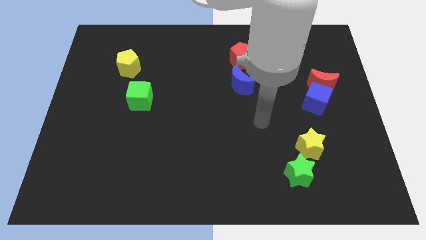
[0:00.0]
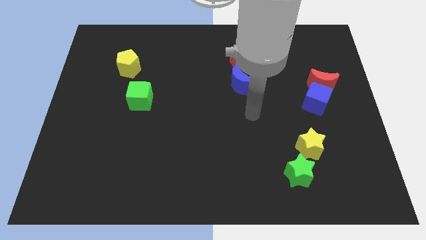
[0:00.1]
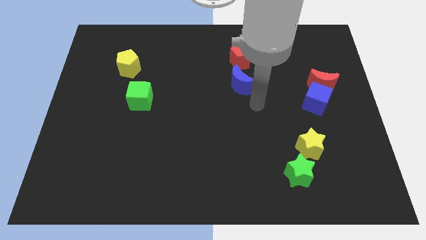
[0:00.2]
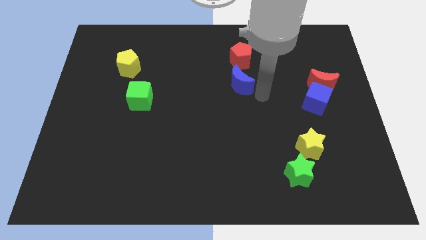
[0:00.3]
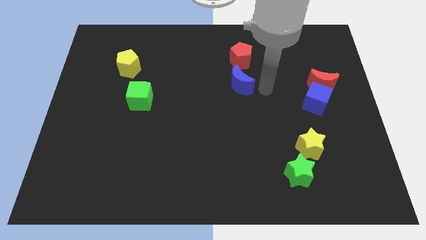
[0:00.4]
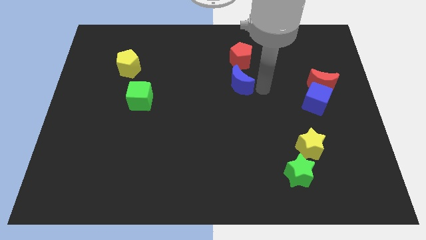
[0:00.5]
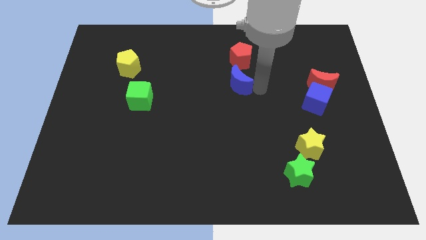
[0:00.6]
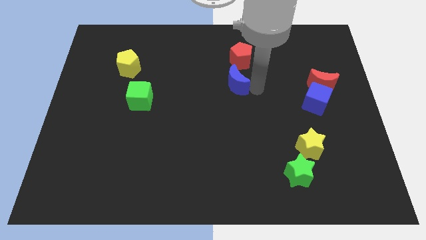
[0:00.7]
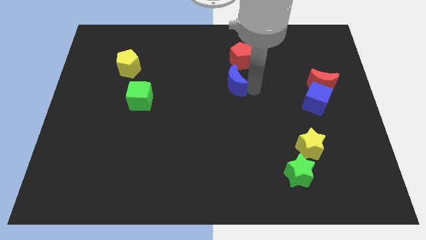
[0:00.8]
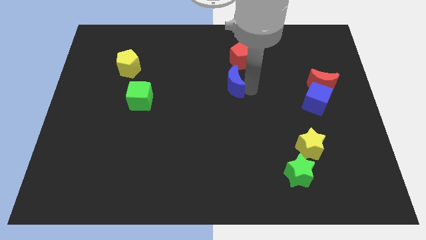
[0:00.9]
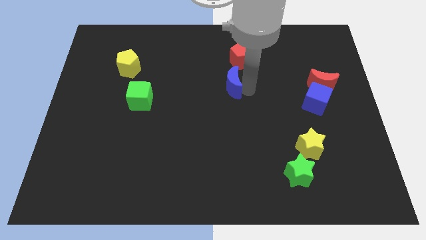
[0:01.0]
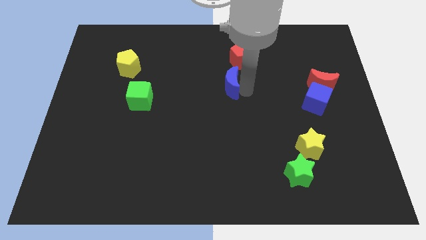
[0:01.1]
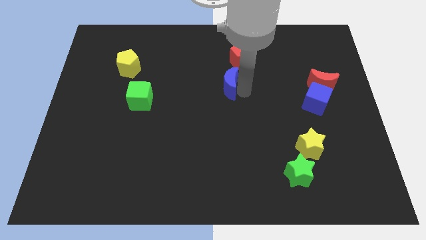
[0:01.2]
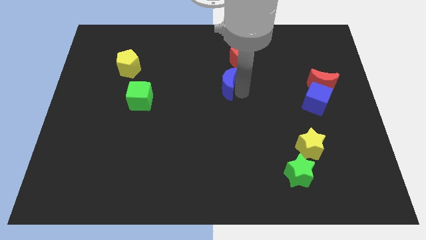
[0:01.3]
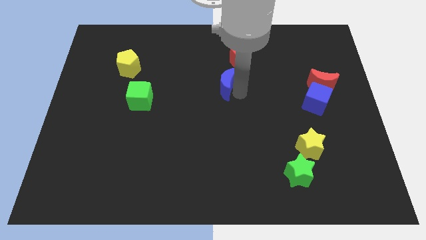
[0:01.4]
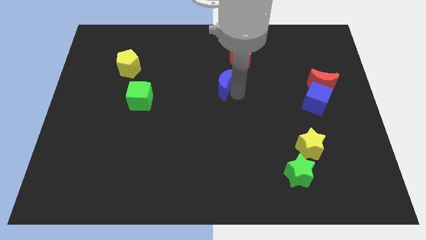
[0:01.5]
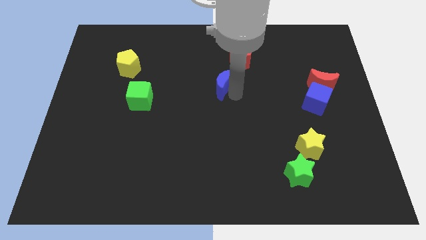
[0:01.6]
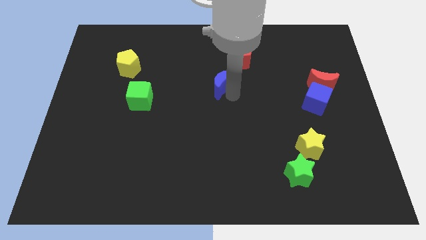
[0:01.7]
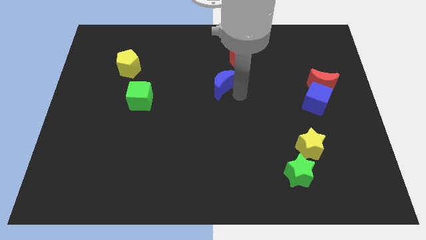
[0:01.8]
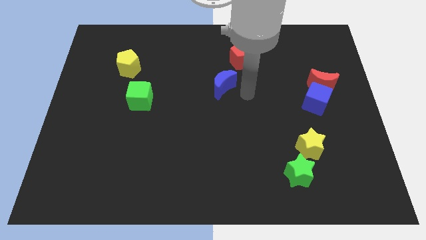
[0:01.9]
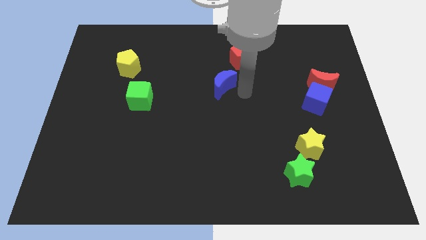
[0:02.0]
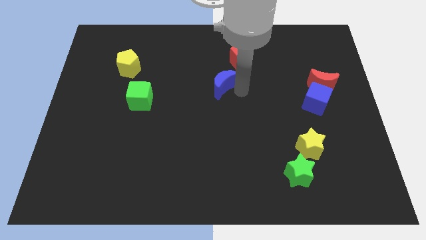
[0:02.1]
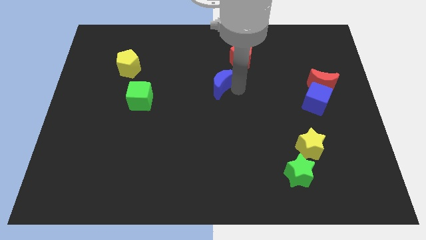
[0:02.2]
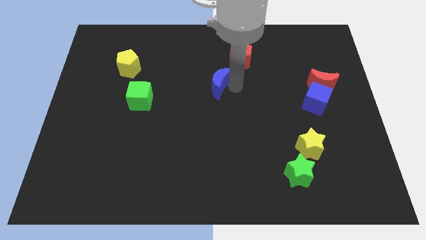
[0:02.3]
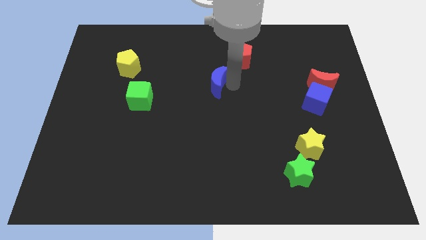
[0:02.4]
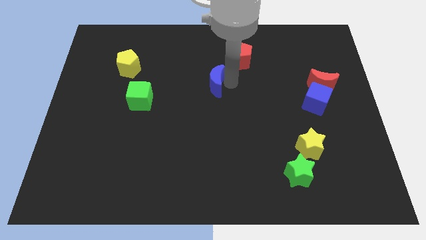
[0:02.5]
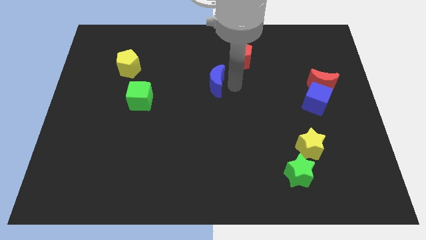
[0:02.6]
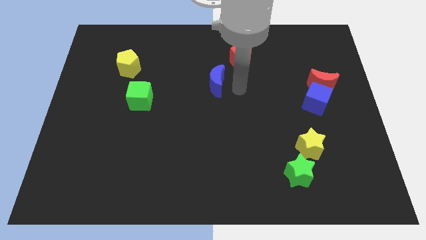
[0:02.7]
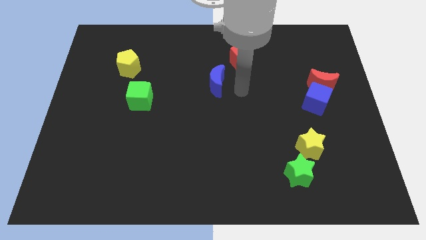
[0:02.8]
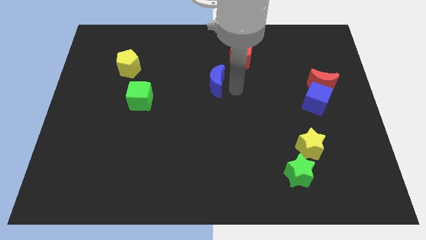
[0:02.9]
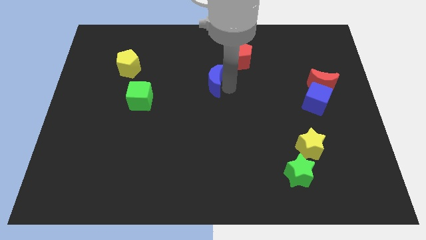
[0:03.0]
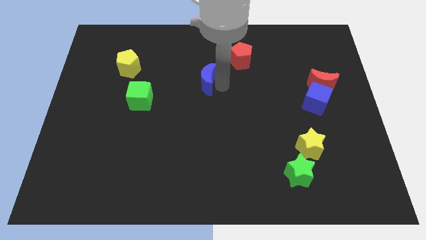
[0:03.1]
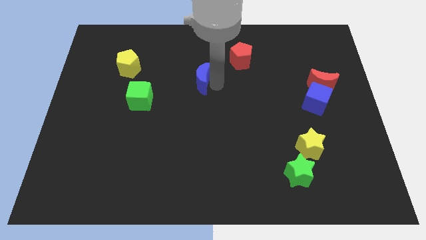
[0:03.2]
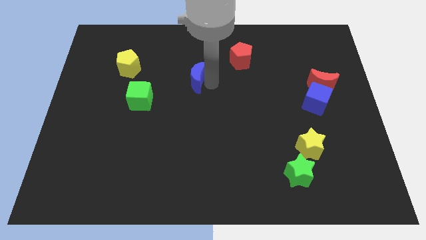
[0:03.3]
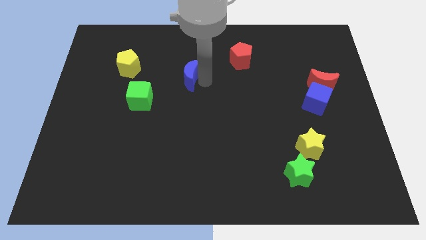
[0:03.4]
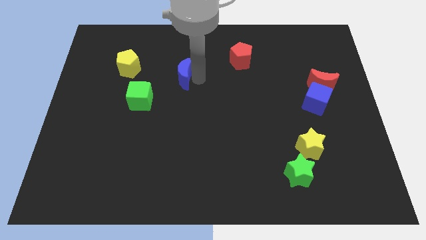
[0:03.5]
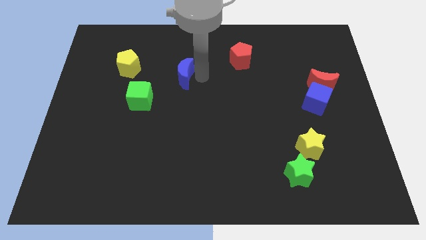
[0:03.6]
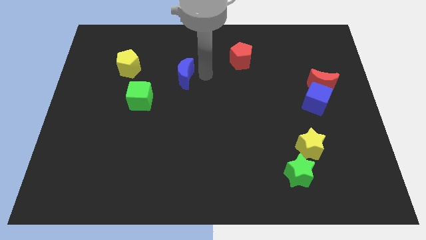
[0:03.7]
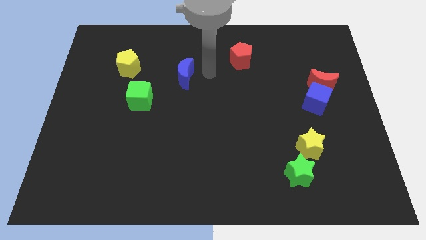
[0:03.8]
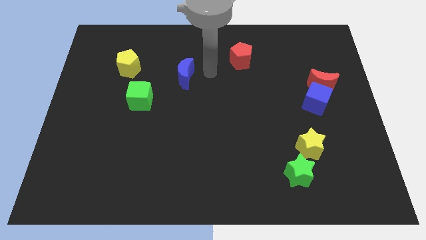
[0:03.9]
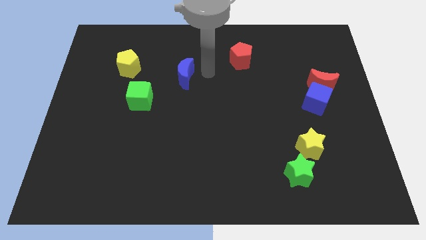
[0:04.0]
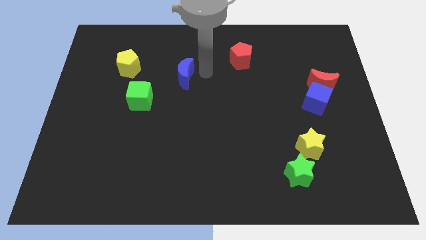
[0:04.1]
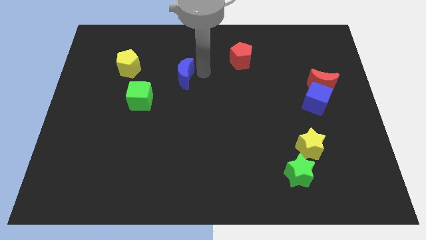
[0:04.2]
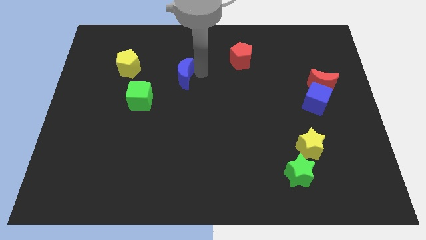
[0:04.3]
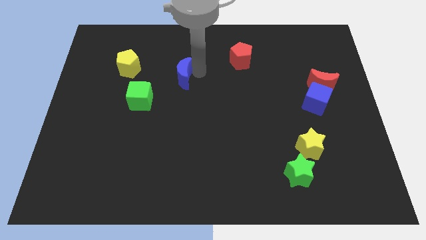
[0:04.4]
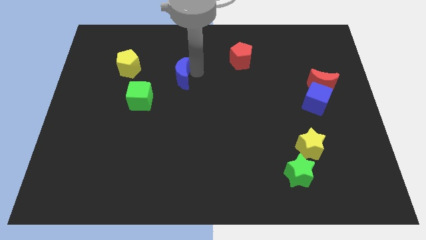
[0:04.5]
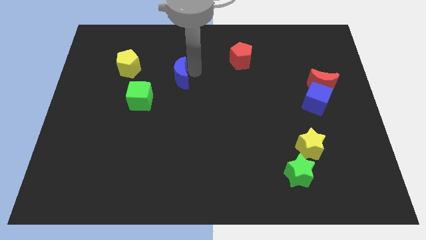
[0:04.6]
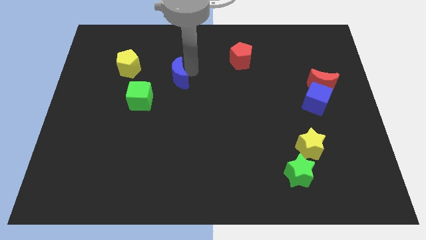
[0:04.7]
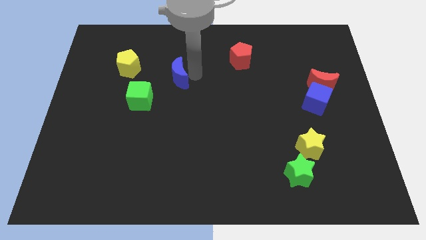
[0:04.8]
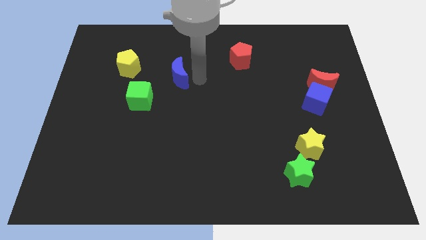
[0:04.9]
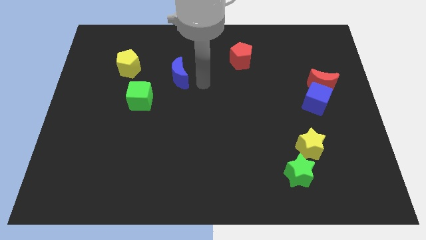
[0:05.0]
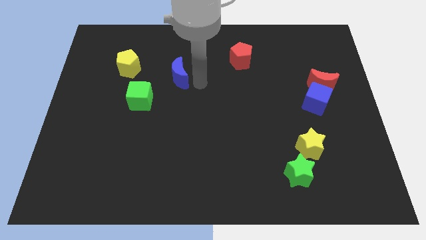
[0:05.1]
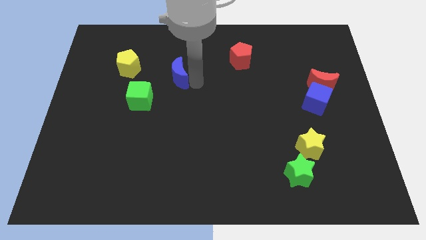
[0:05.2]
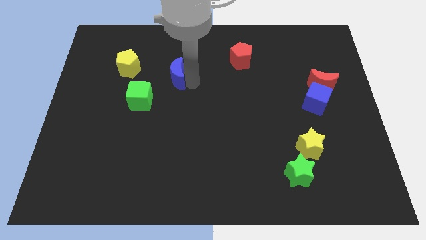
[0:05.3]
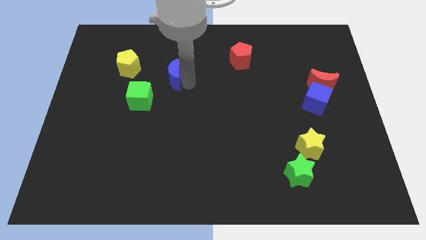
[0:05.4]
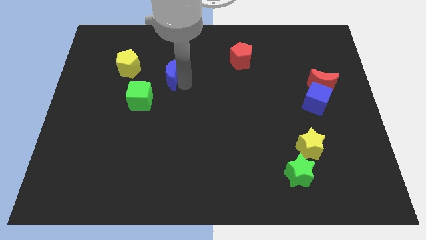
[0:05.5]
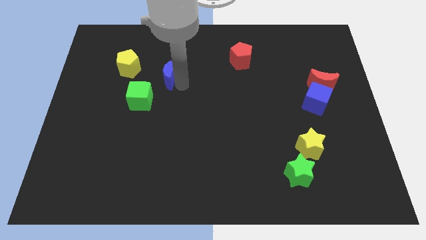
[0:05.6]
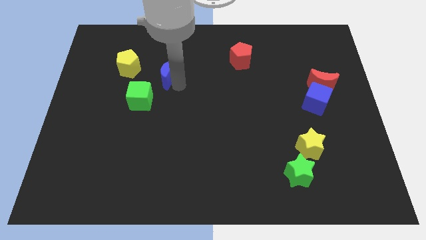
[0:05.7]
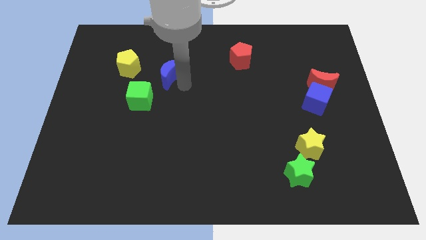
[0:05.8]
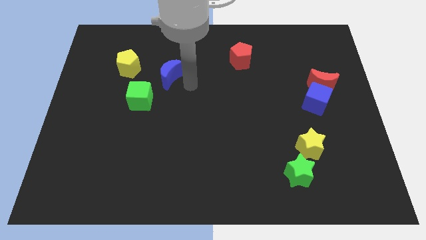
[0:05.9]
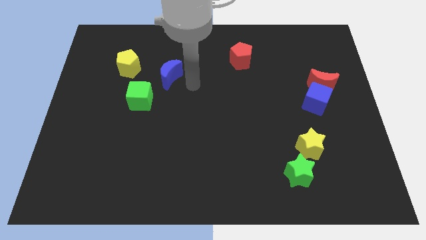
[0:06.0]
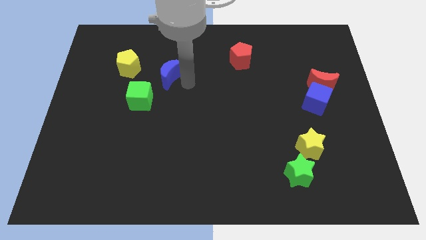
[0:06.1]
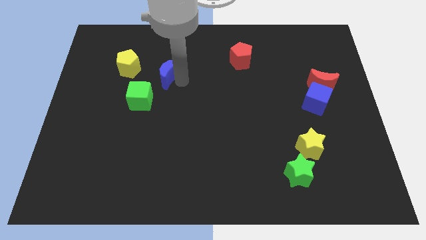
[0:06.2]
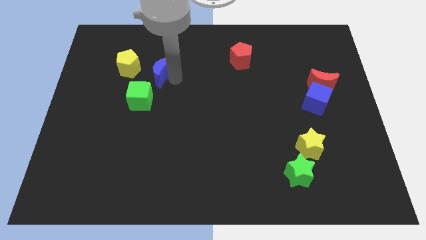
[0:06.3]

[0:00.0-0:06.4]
move the blue moon to the top side of the green cube
